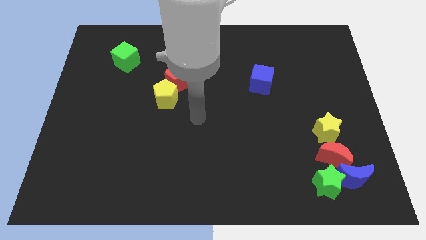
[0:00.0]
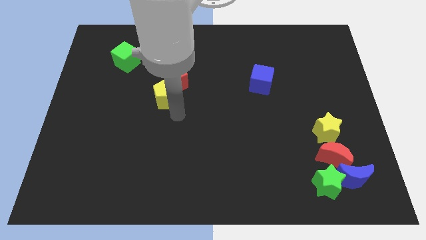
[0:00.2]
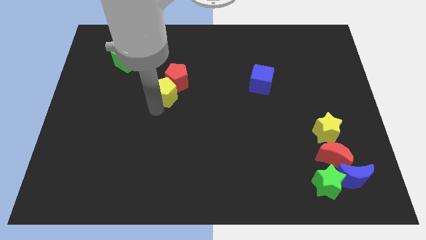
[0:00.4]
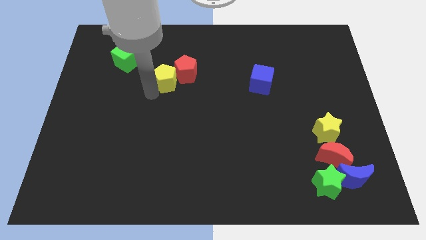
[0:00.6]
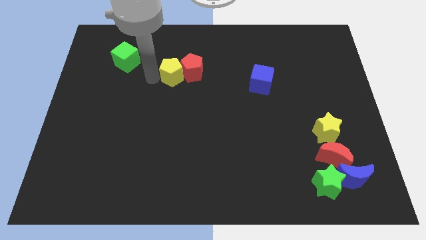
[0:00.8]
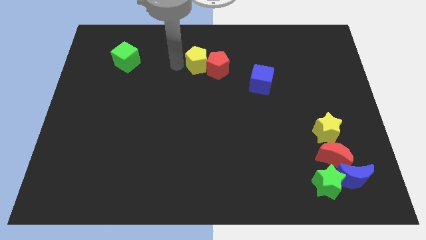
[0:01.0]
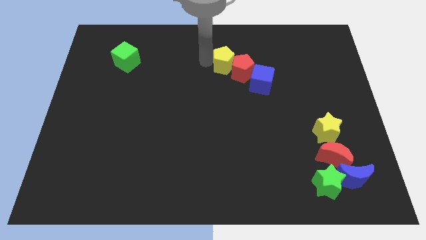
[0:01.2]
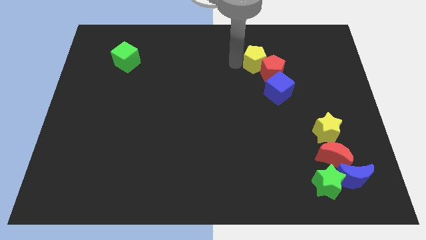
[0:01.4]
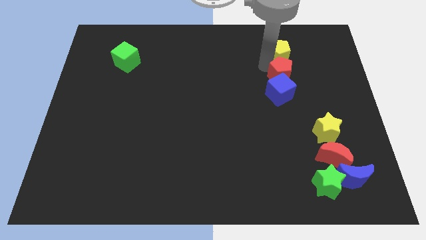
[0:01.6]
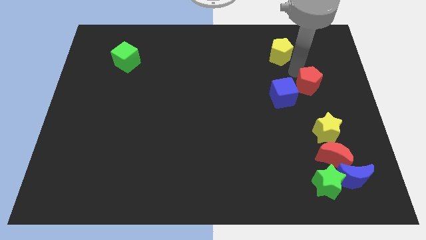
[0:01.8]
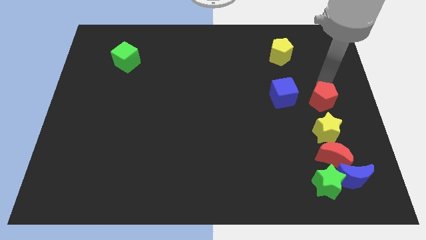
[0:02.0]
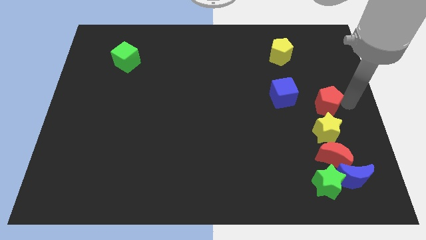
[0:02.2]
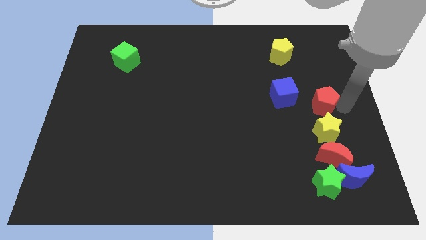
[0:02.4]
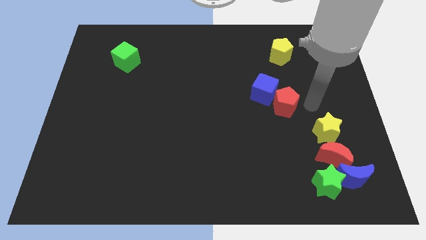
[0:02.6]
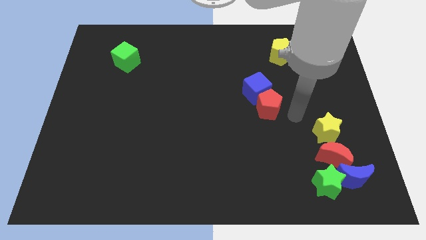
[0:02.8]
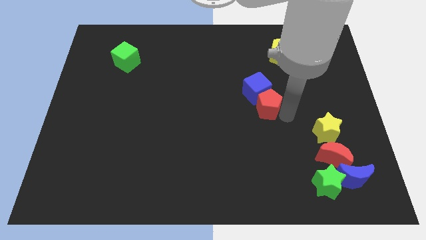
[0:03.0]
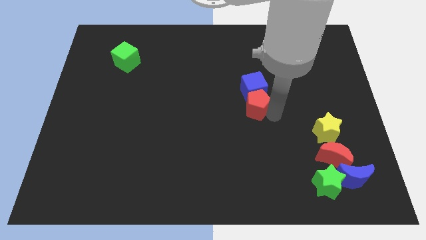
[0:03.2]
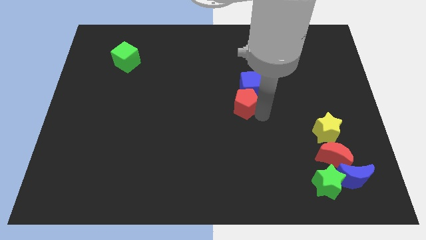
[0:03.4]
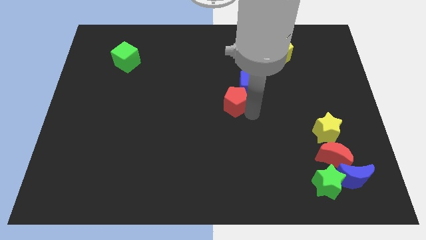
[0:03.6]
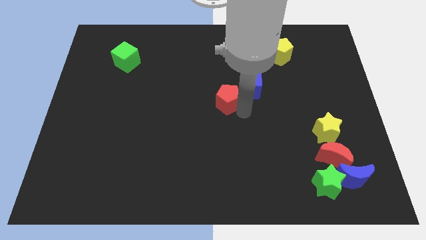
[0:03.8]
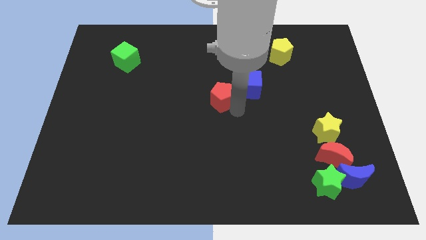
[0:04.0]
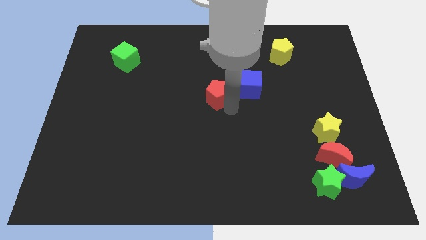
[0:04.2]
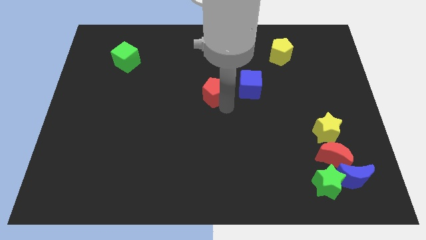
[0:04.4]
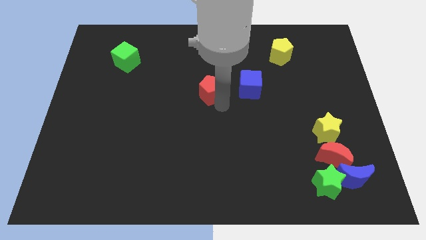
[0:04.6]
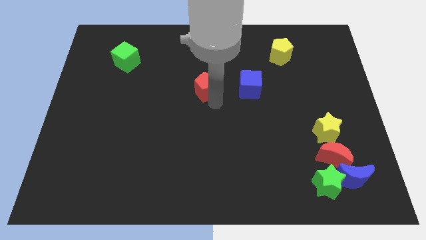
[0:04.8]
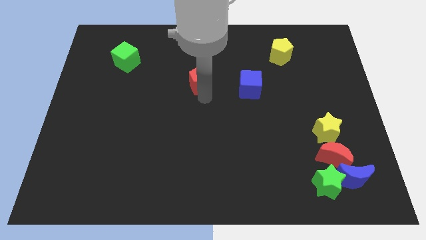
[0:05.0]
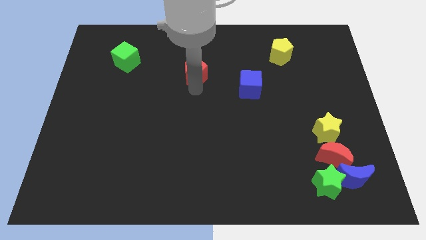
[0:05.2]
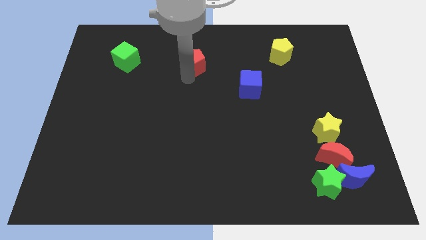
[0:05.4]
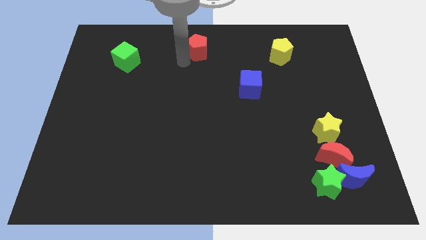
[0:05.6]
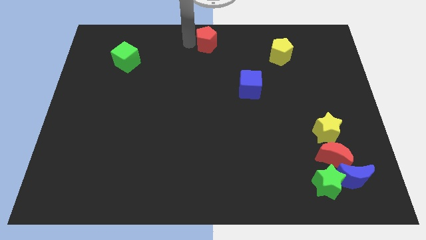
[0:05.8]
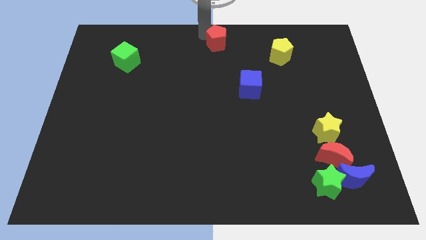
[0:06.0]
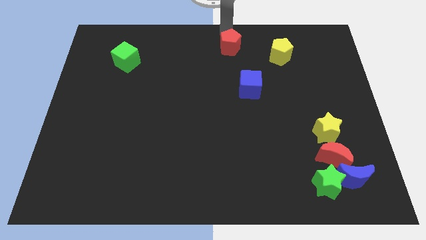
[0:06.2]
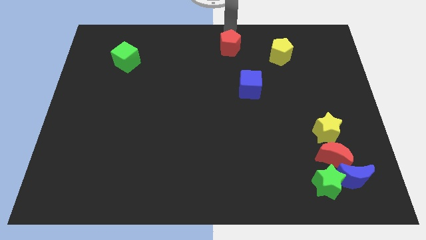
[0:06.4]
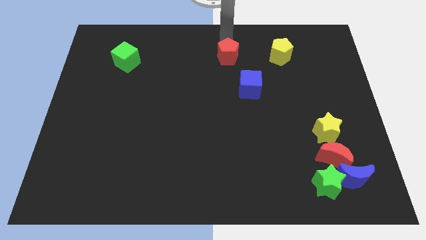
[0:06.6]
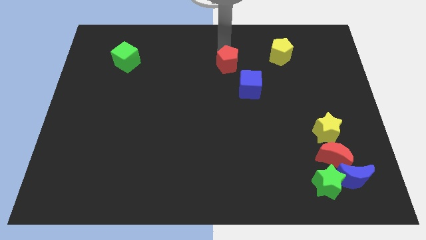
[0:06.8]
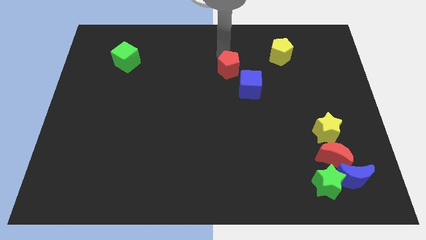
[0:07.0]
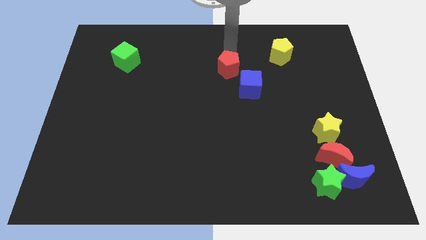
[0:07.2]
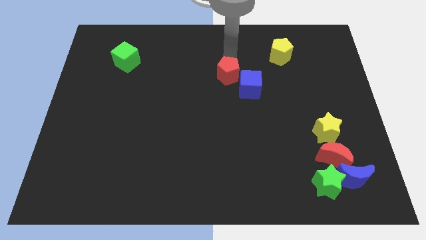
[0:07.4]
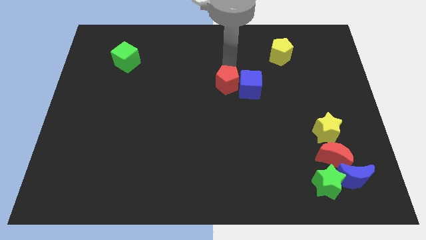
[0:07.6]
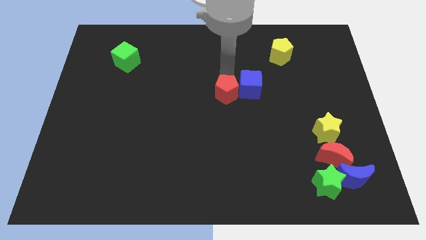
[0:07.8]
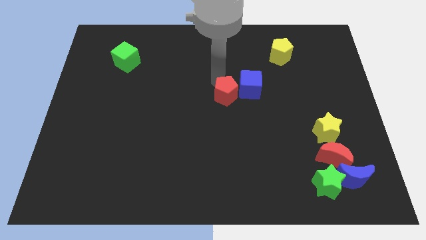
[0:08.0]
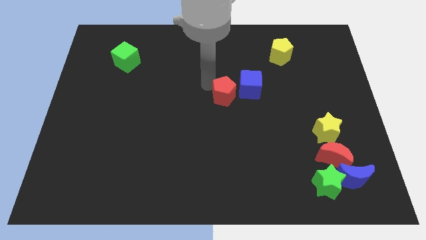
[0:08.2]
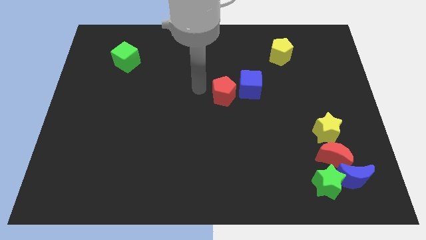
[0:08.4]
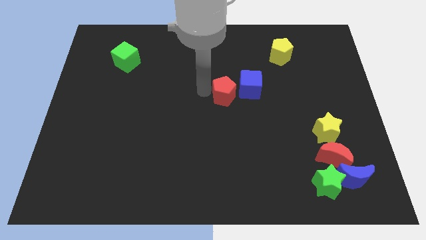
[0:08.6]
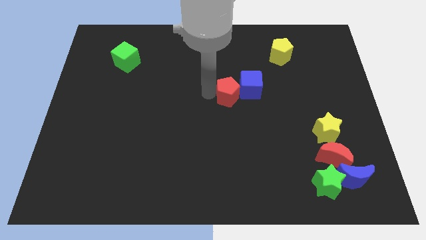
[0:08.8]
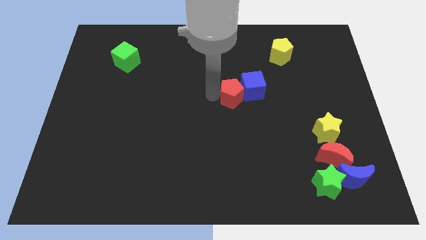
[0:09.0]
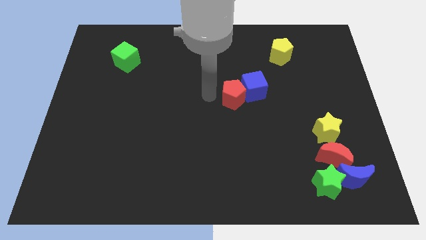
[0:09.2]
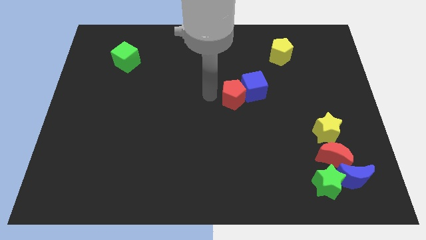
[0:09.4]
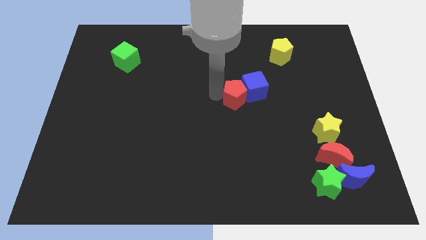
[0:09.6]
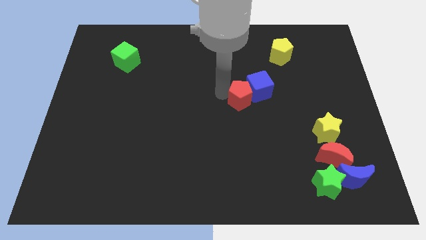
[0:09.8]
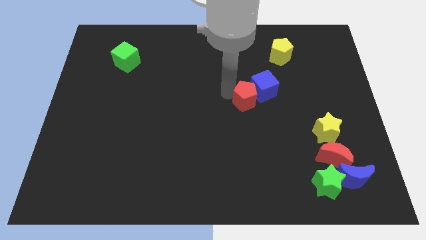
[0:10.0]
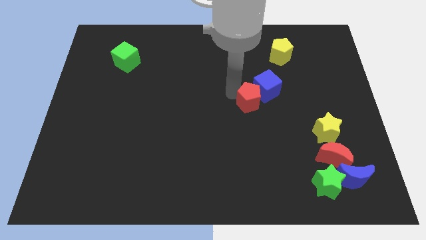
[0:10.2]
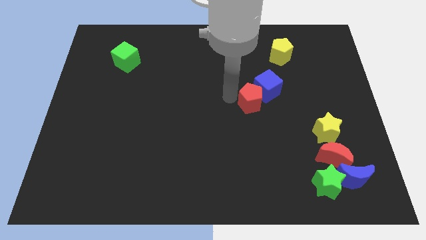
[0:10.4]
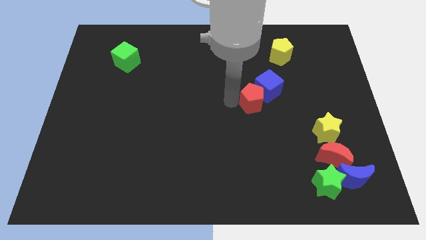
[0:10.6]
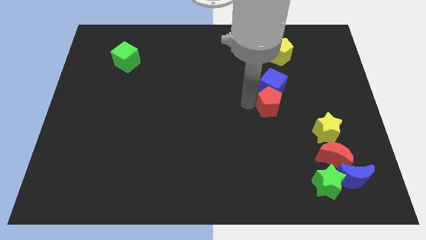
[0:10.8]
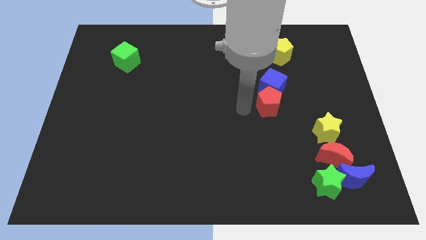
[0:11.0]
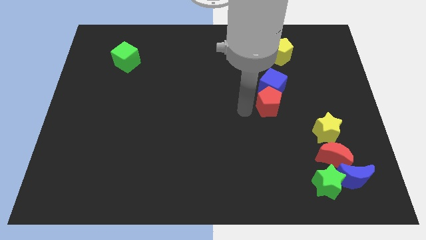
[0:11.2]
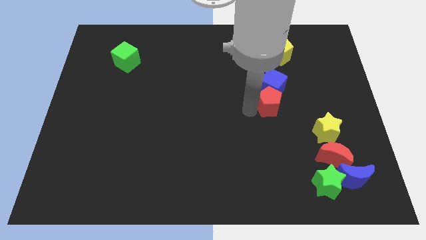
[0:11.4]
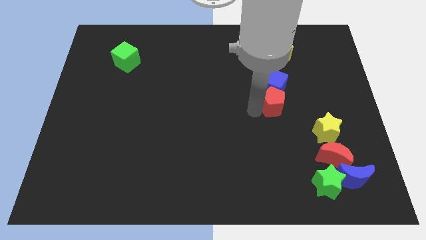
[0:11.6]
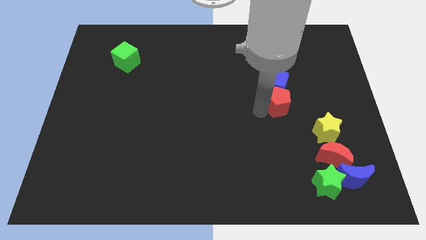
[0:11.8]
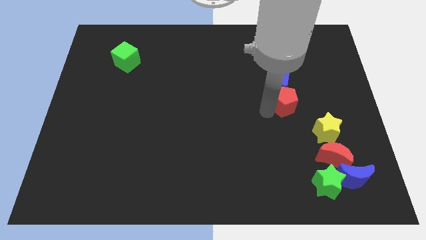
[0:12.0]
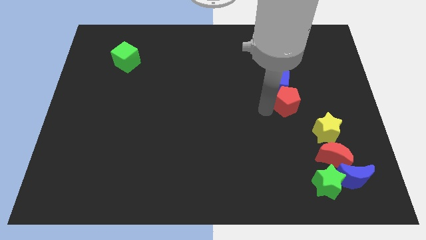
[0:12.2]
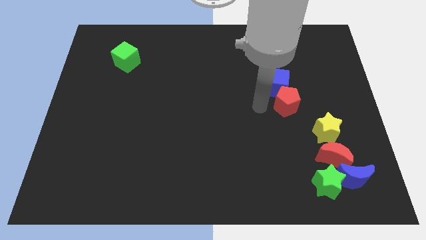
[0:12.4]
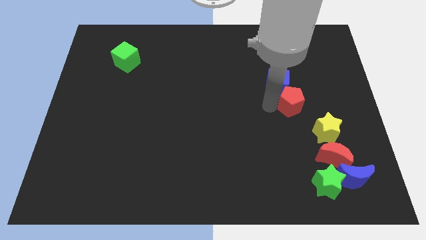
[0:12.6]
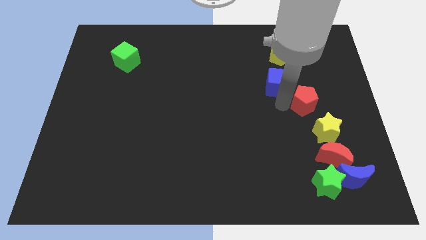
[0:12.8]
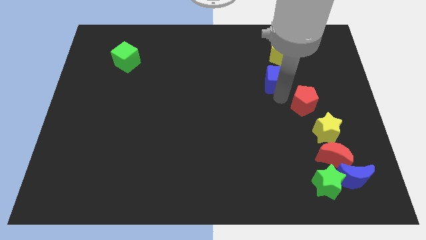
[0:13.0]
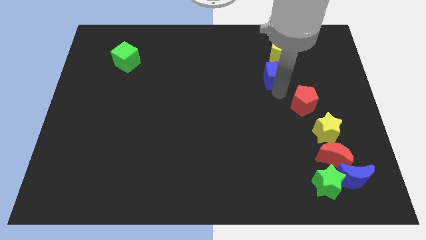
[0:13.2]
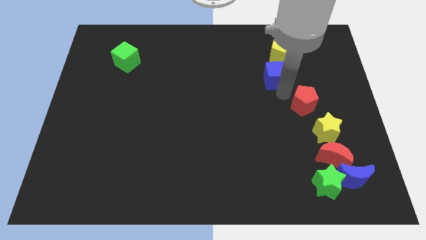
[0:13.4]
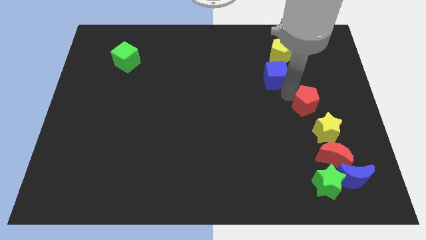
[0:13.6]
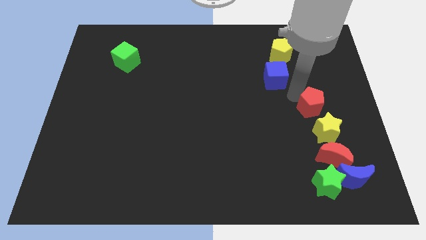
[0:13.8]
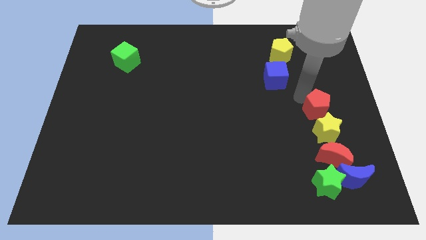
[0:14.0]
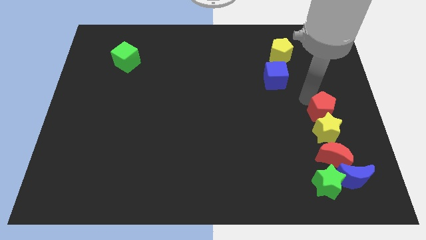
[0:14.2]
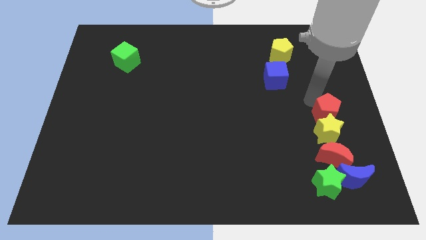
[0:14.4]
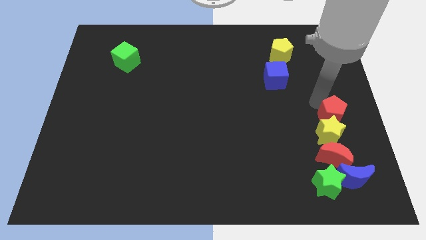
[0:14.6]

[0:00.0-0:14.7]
push the red pentagon above the blue moon
